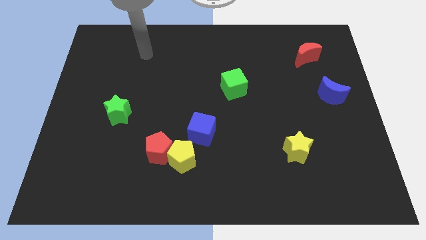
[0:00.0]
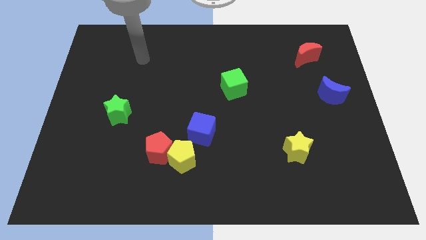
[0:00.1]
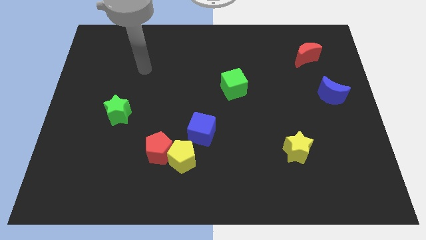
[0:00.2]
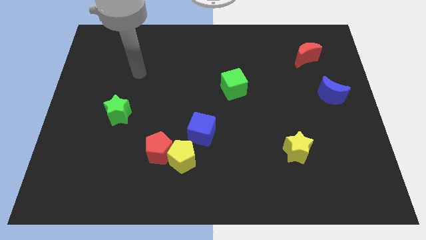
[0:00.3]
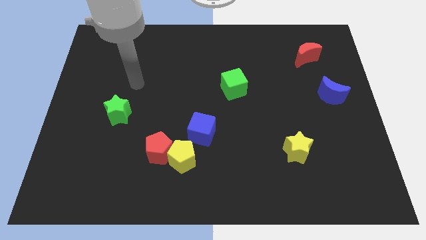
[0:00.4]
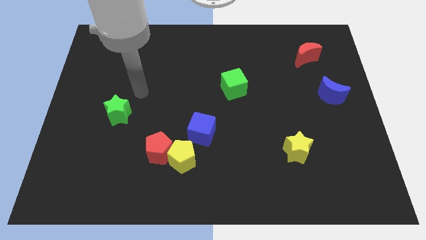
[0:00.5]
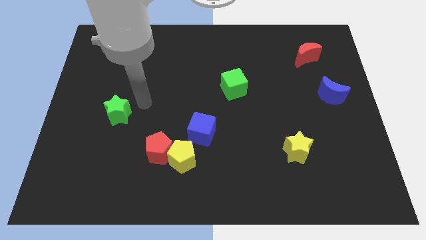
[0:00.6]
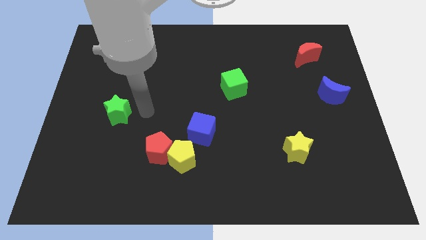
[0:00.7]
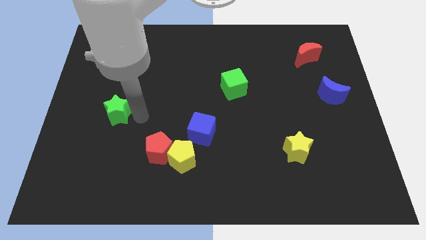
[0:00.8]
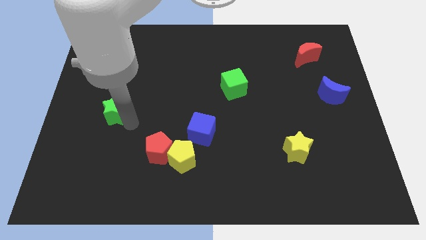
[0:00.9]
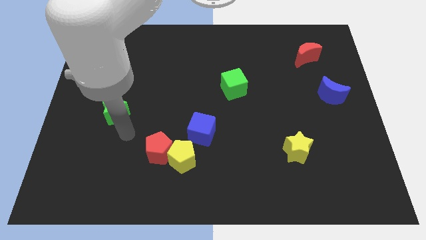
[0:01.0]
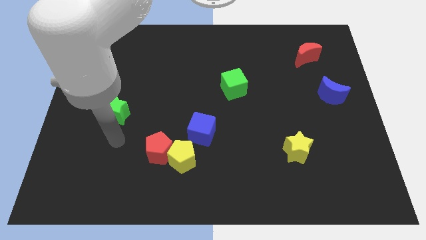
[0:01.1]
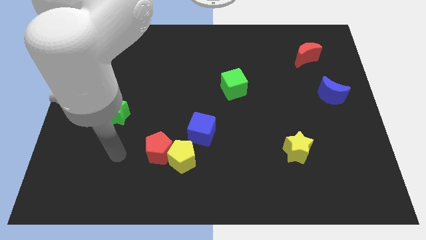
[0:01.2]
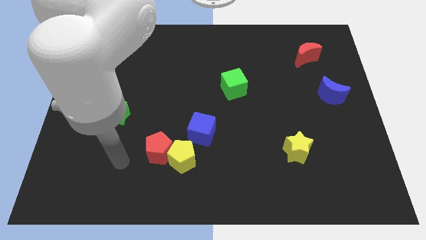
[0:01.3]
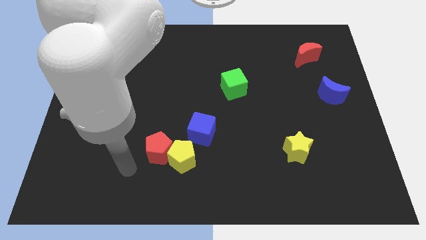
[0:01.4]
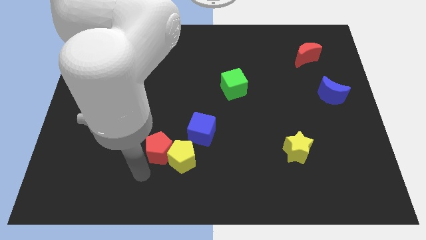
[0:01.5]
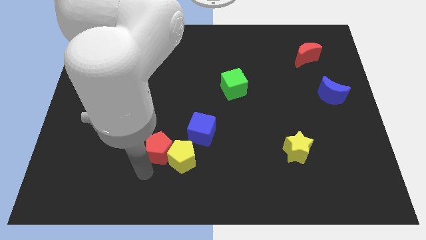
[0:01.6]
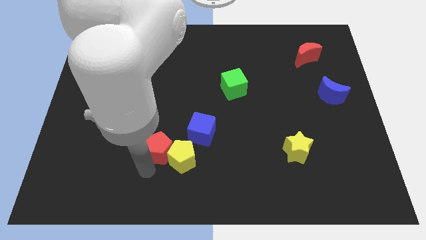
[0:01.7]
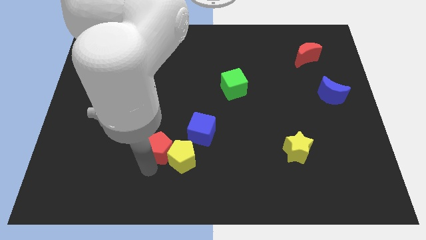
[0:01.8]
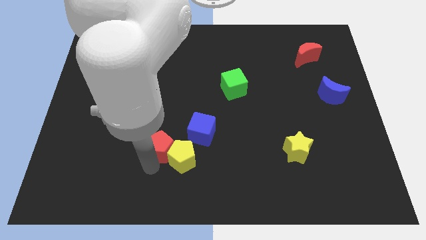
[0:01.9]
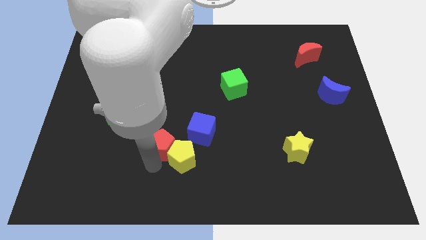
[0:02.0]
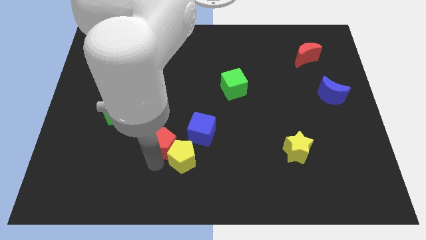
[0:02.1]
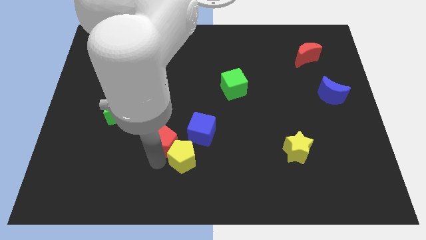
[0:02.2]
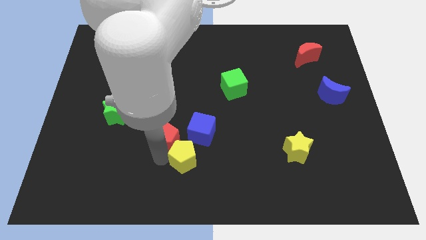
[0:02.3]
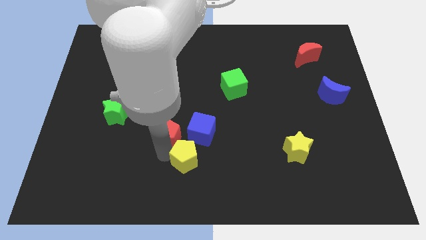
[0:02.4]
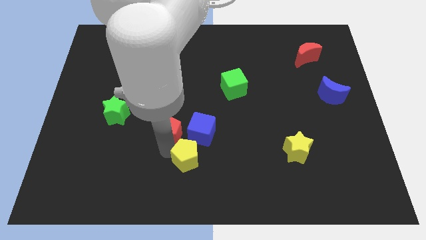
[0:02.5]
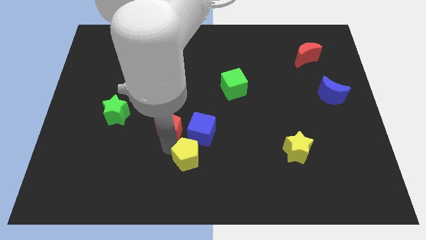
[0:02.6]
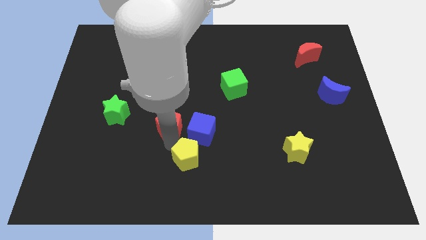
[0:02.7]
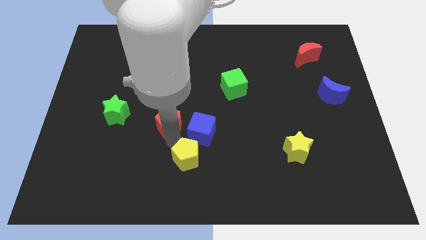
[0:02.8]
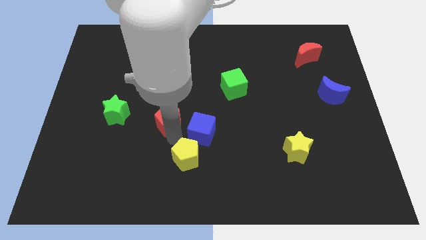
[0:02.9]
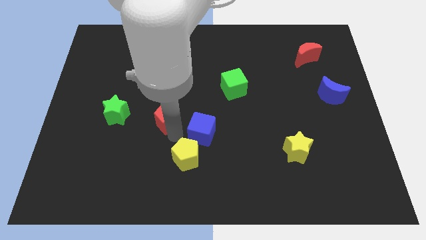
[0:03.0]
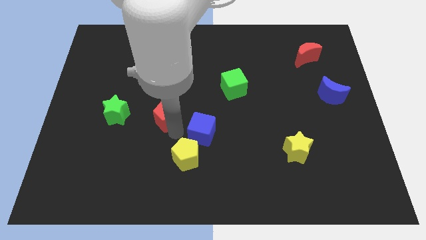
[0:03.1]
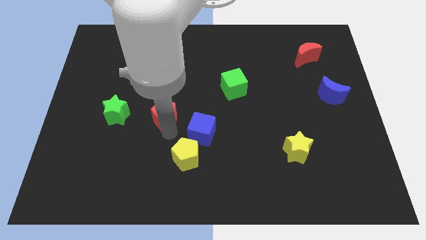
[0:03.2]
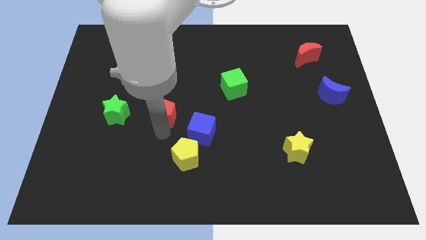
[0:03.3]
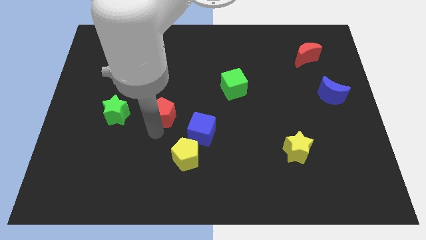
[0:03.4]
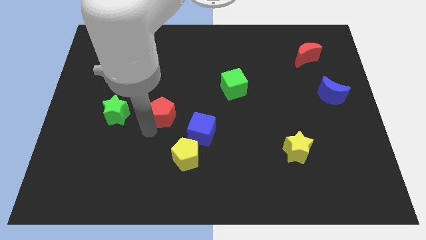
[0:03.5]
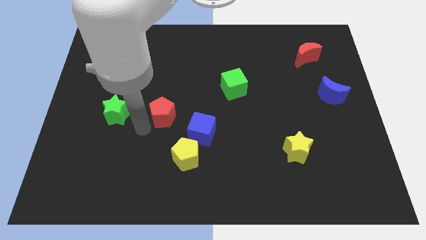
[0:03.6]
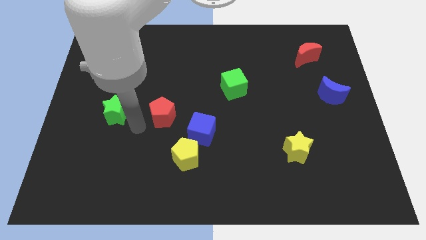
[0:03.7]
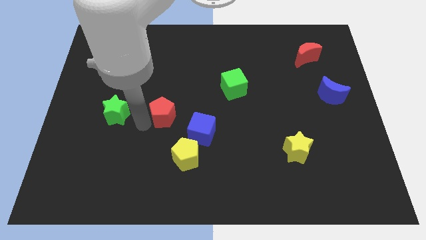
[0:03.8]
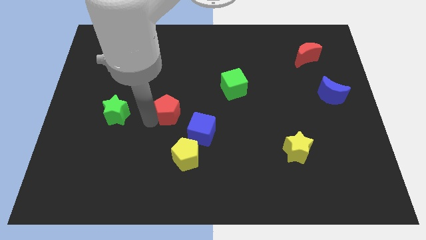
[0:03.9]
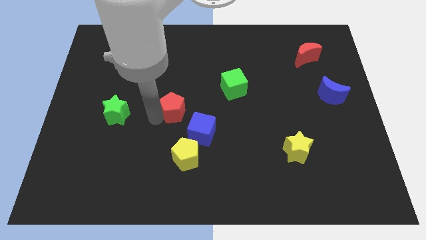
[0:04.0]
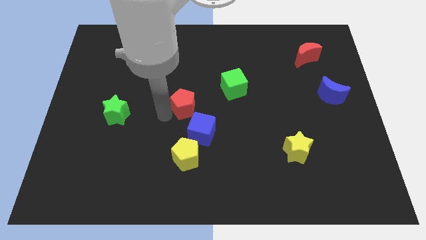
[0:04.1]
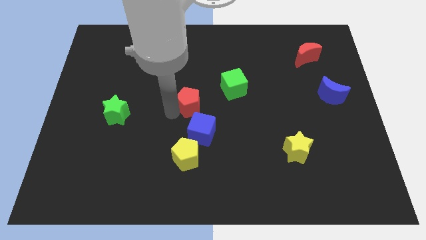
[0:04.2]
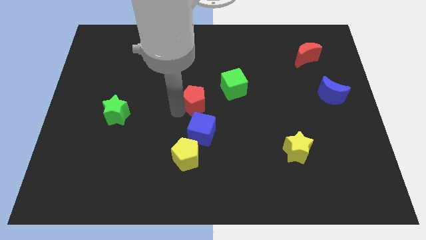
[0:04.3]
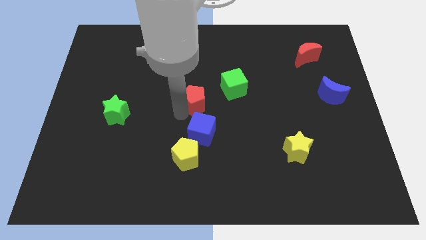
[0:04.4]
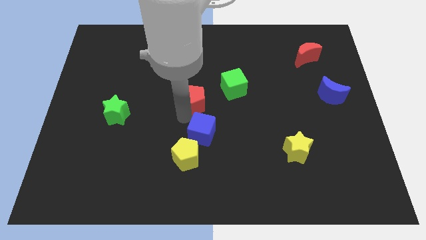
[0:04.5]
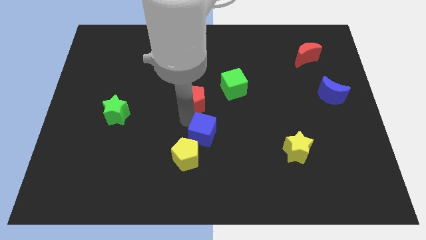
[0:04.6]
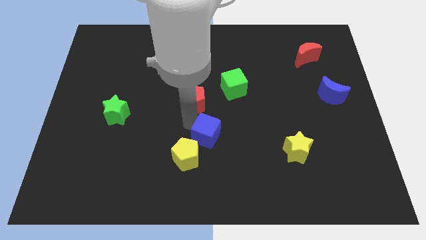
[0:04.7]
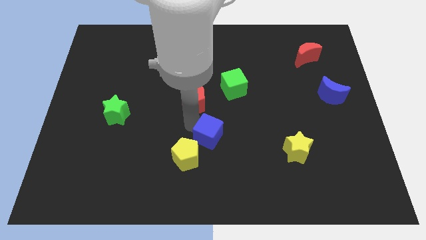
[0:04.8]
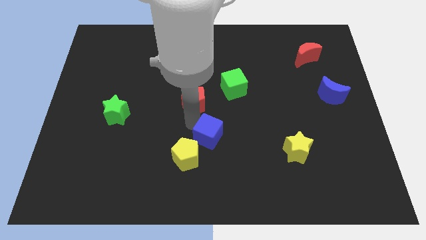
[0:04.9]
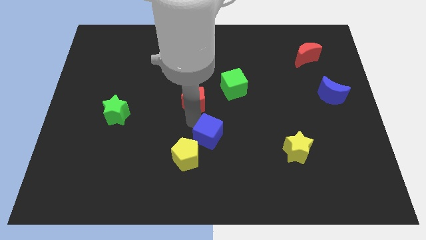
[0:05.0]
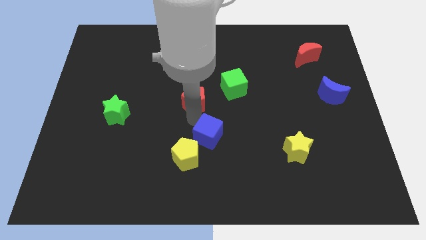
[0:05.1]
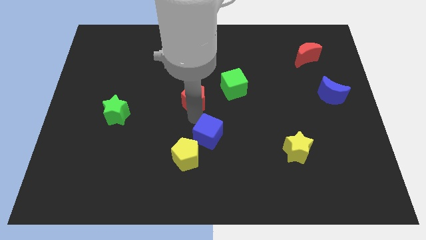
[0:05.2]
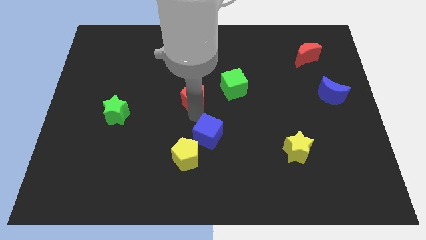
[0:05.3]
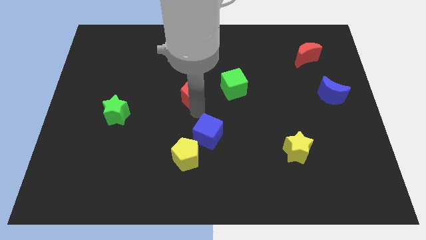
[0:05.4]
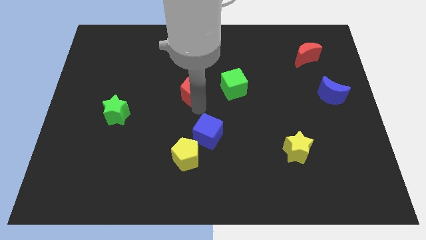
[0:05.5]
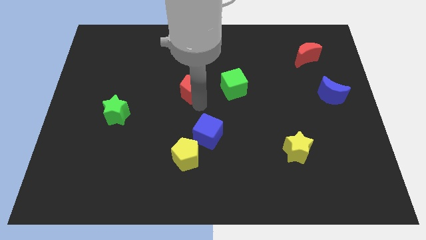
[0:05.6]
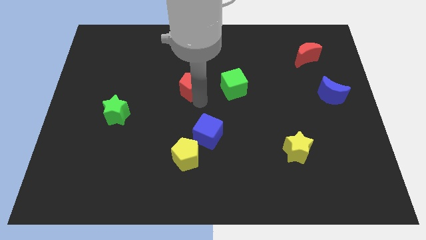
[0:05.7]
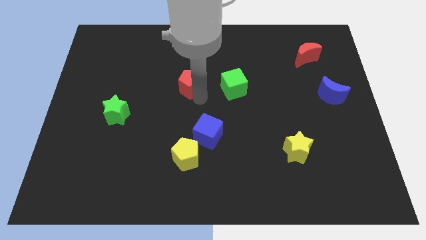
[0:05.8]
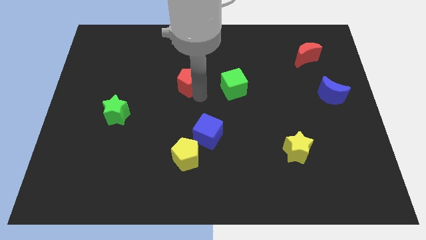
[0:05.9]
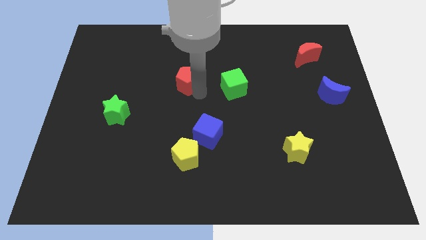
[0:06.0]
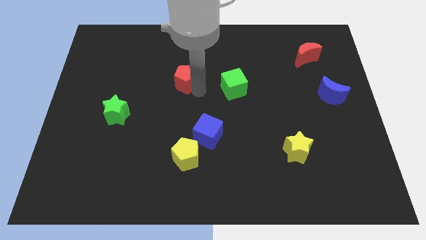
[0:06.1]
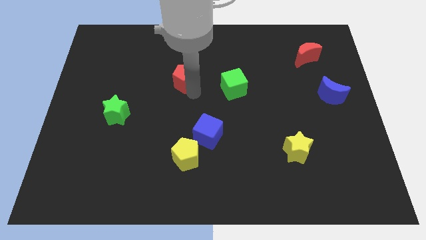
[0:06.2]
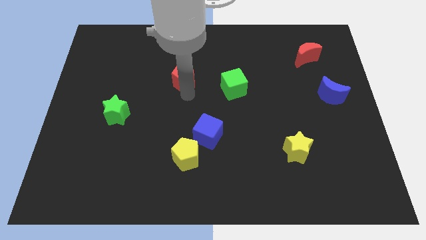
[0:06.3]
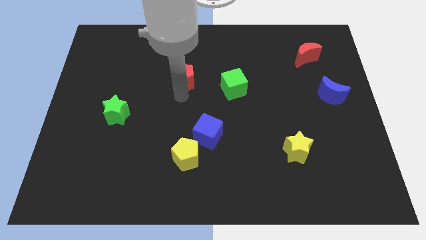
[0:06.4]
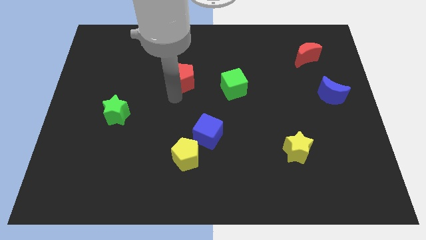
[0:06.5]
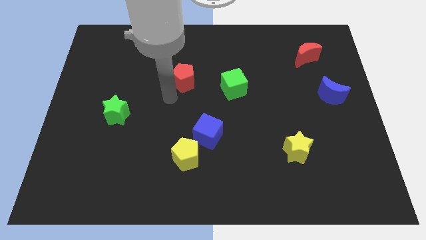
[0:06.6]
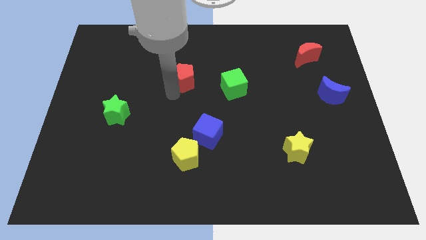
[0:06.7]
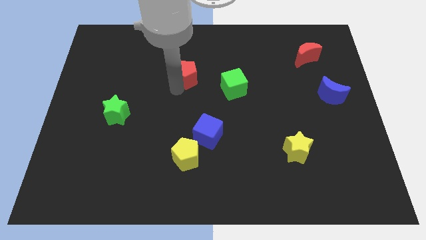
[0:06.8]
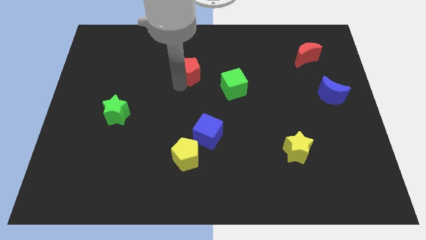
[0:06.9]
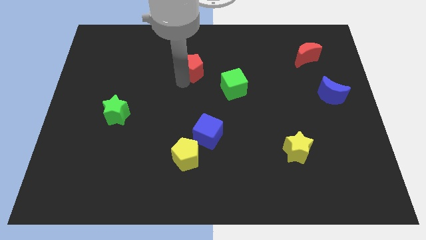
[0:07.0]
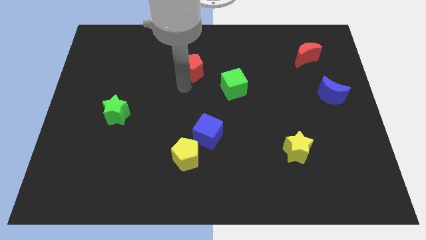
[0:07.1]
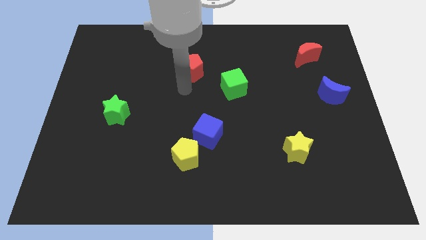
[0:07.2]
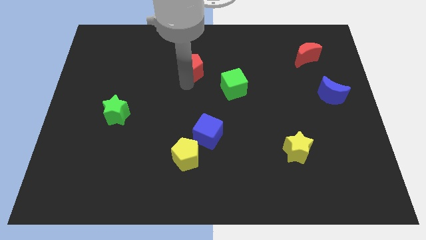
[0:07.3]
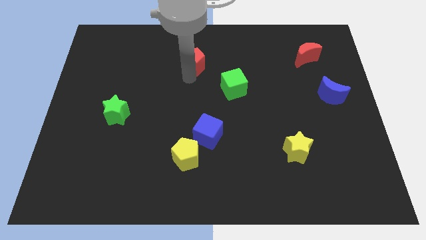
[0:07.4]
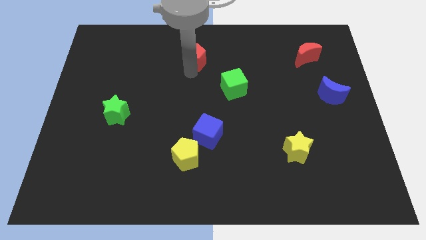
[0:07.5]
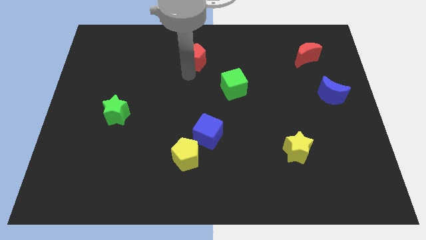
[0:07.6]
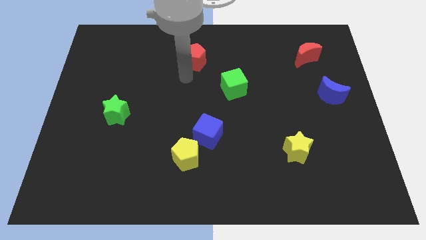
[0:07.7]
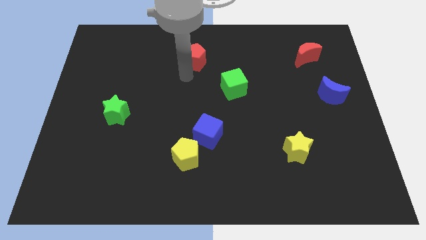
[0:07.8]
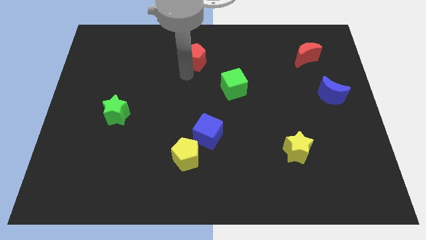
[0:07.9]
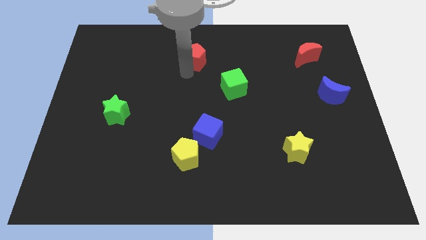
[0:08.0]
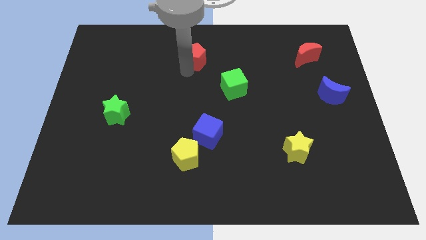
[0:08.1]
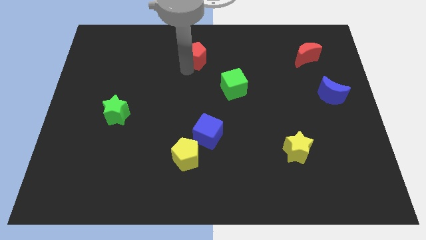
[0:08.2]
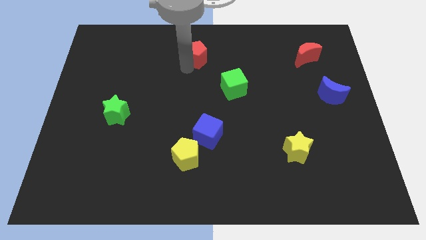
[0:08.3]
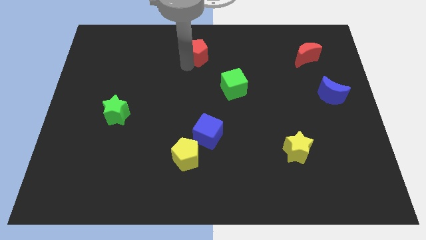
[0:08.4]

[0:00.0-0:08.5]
put the red pentagon to the towards your base
